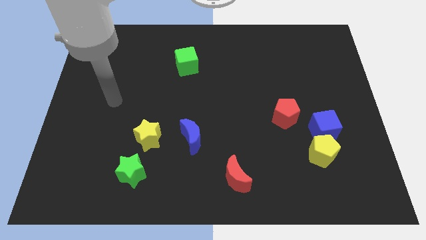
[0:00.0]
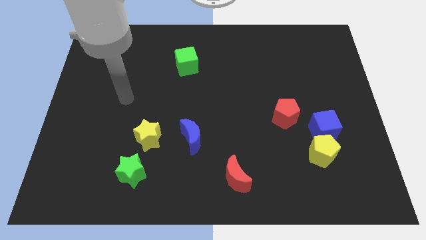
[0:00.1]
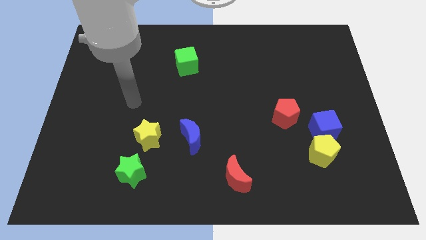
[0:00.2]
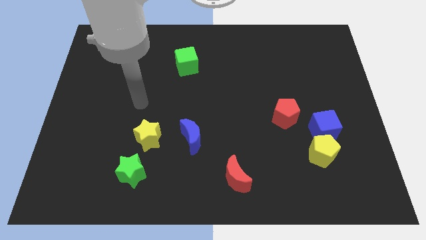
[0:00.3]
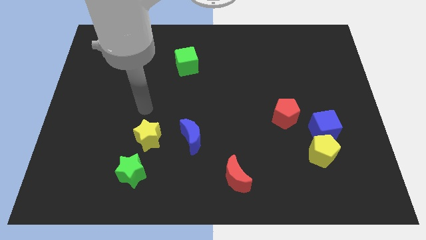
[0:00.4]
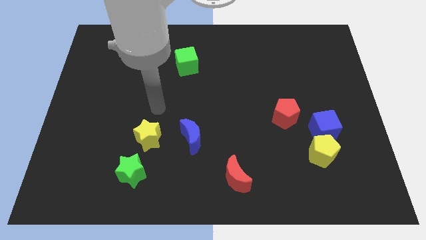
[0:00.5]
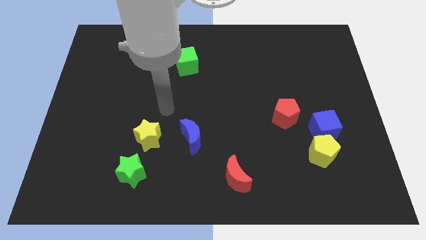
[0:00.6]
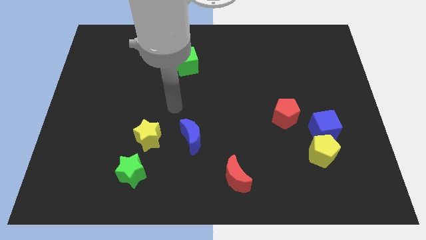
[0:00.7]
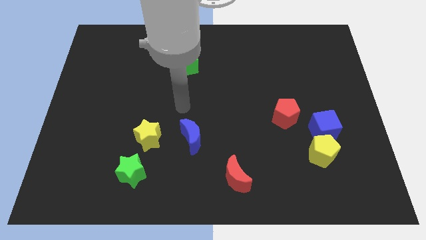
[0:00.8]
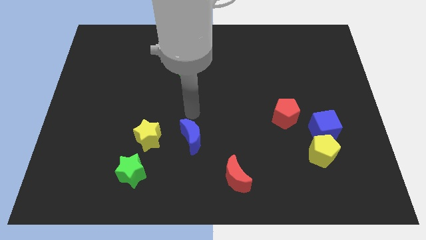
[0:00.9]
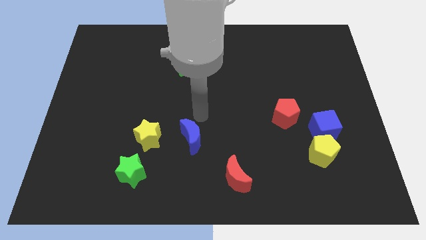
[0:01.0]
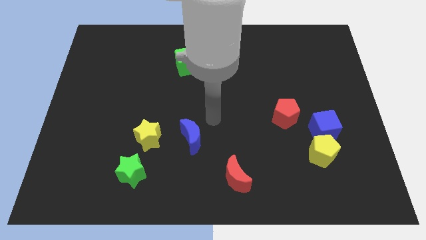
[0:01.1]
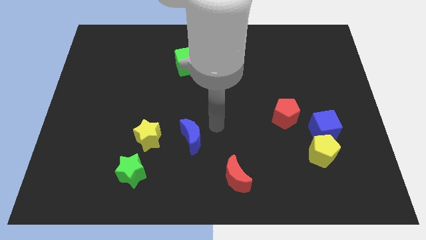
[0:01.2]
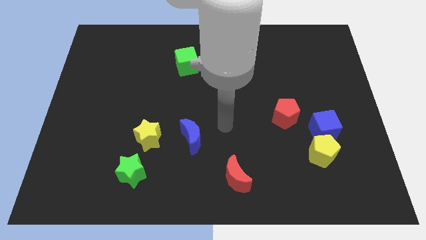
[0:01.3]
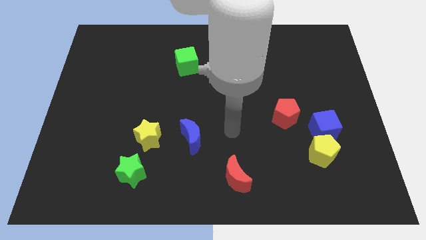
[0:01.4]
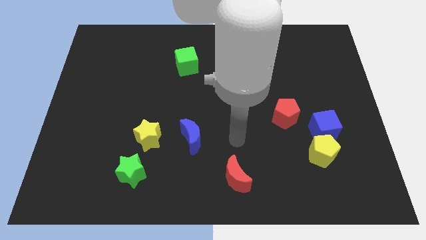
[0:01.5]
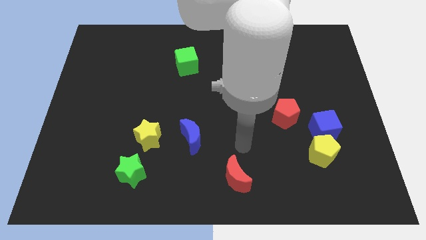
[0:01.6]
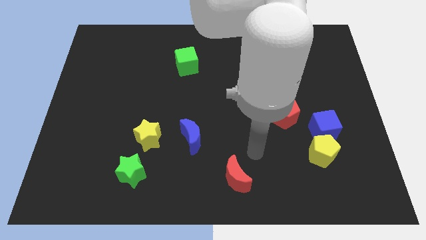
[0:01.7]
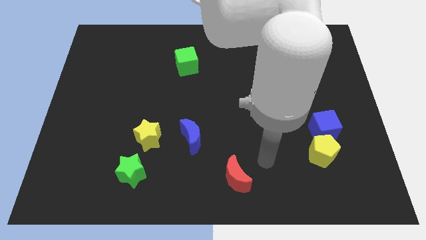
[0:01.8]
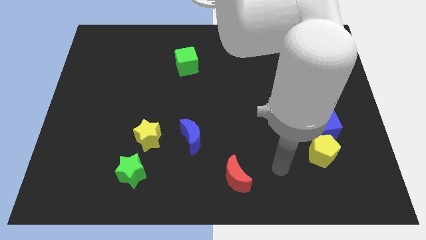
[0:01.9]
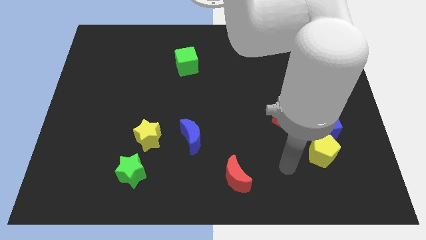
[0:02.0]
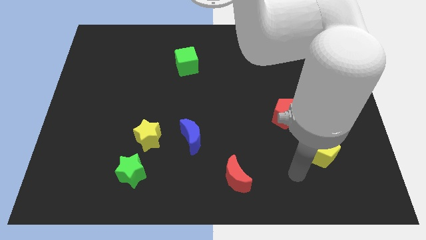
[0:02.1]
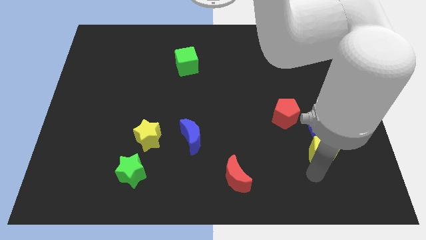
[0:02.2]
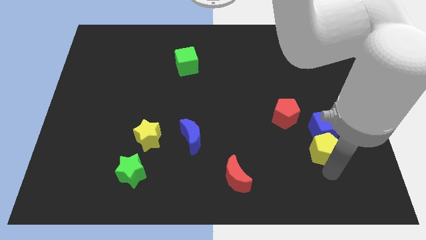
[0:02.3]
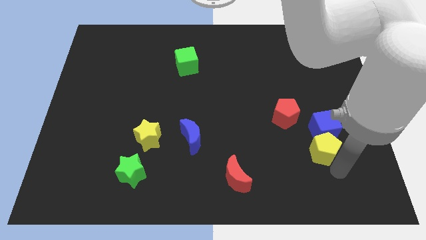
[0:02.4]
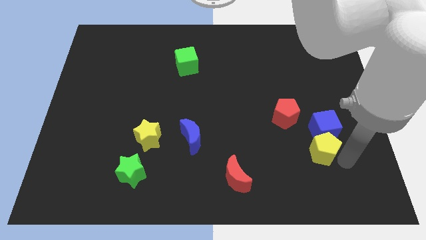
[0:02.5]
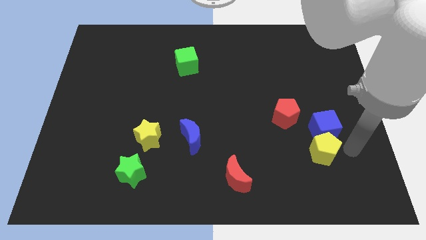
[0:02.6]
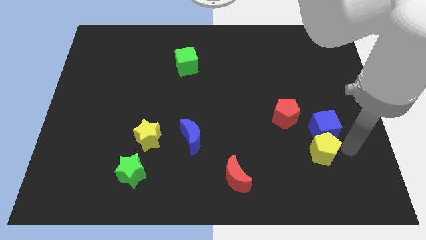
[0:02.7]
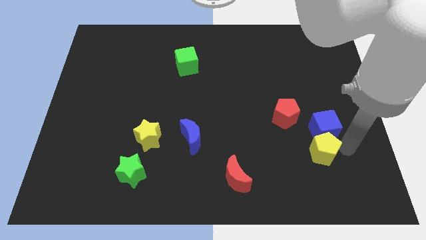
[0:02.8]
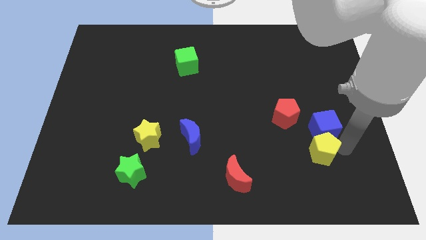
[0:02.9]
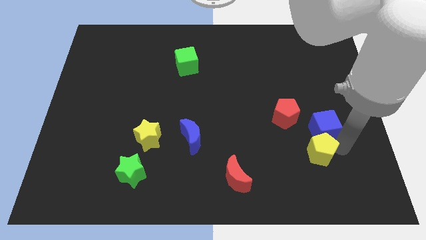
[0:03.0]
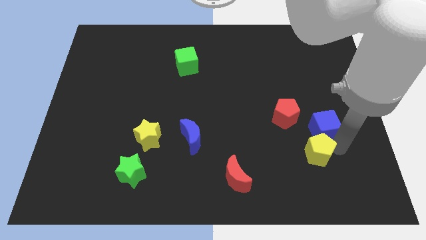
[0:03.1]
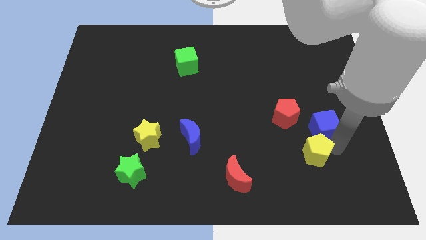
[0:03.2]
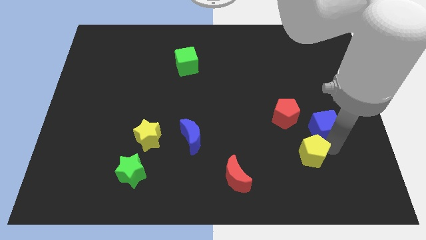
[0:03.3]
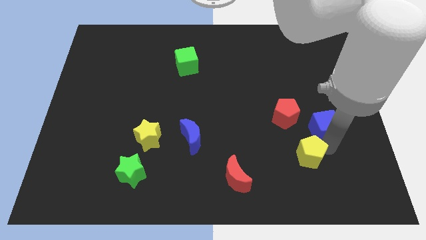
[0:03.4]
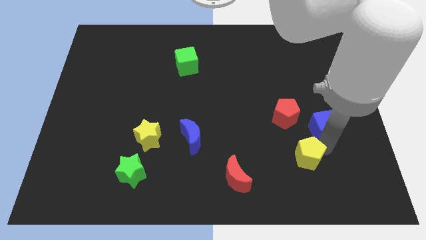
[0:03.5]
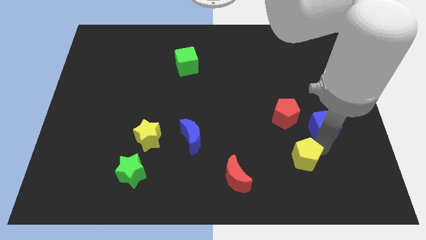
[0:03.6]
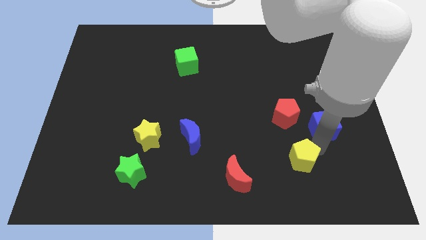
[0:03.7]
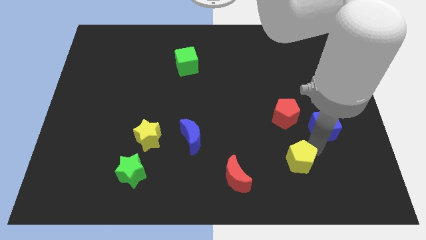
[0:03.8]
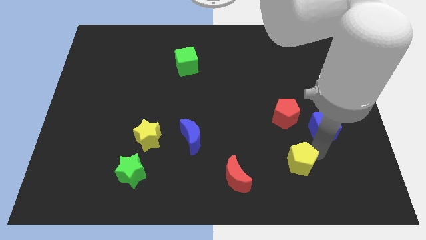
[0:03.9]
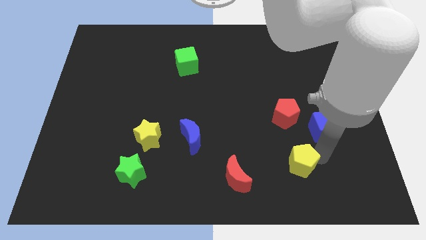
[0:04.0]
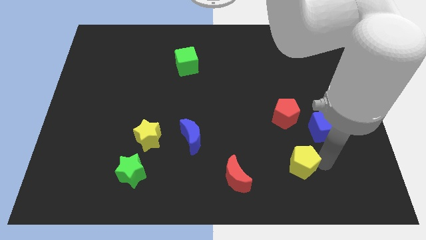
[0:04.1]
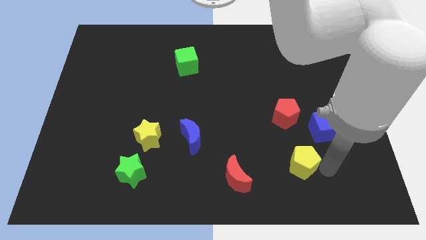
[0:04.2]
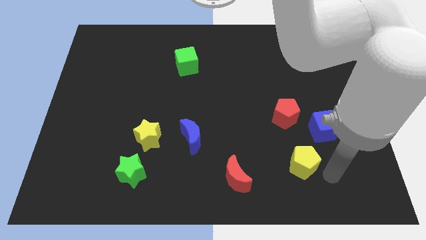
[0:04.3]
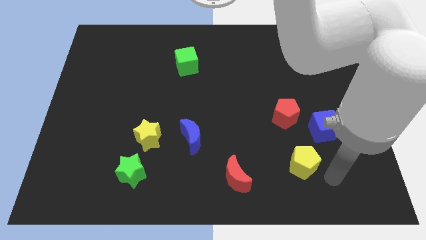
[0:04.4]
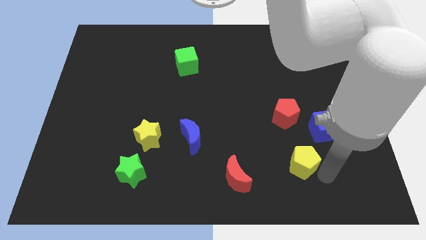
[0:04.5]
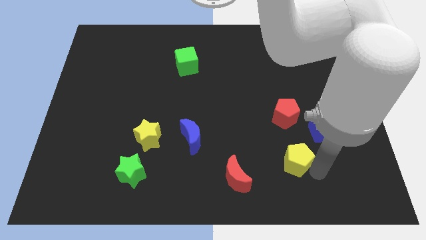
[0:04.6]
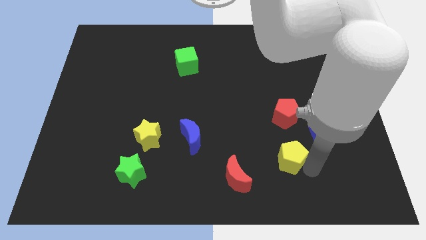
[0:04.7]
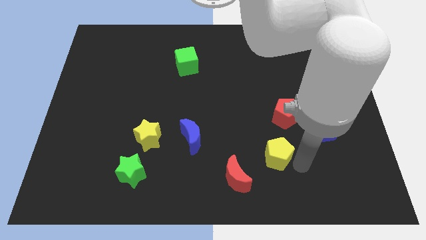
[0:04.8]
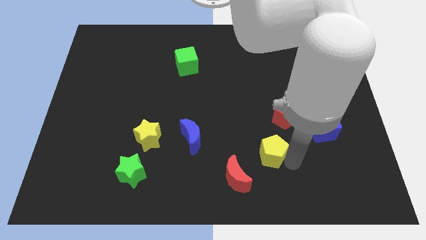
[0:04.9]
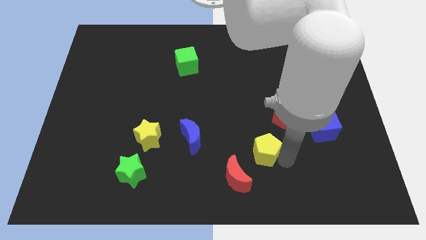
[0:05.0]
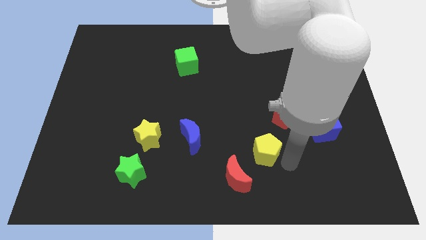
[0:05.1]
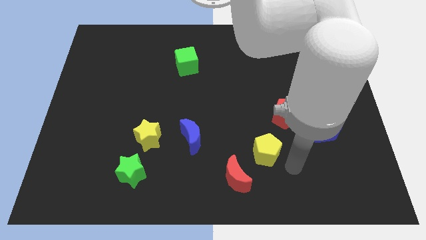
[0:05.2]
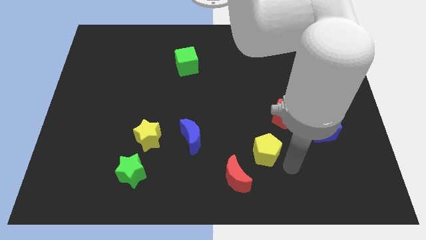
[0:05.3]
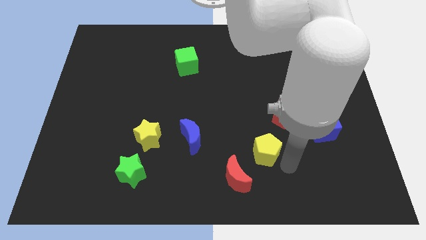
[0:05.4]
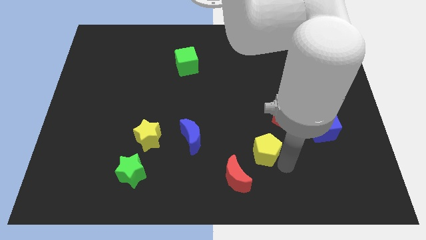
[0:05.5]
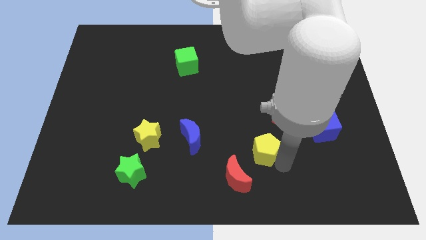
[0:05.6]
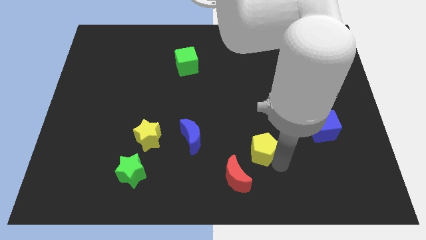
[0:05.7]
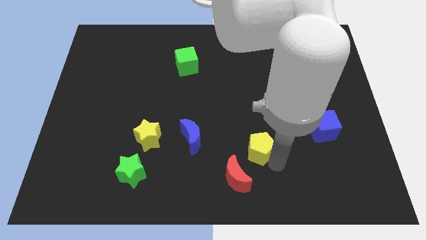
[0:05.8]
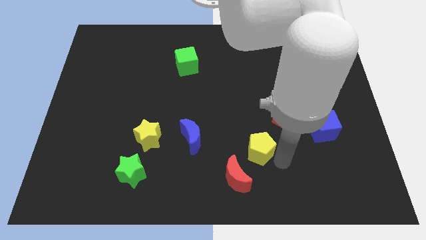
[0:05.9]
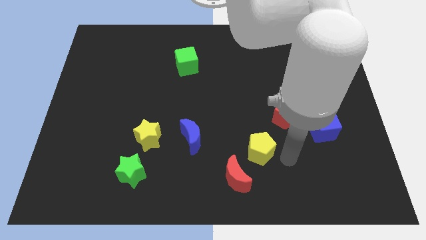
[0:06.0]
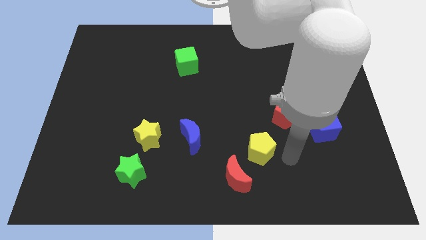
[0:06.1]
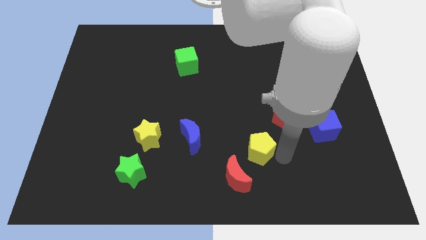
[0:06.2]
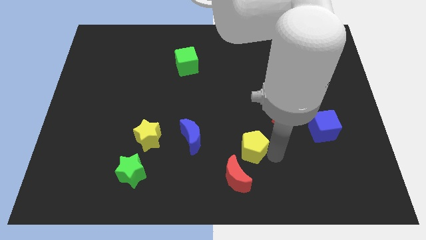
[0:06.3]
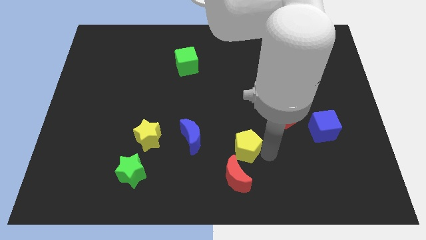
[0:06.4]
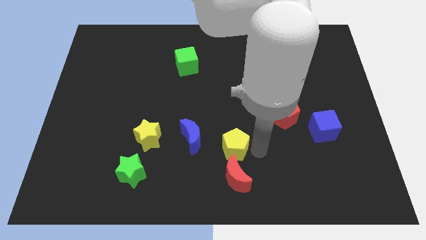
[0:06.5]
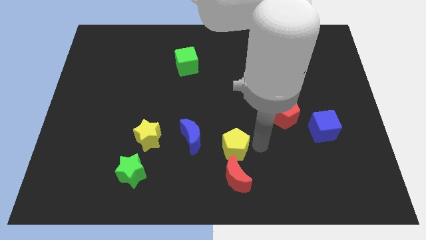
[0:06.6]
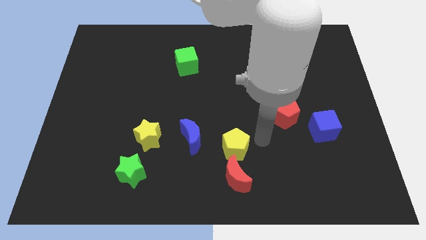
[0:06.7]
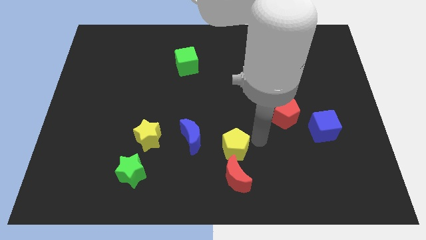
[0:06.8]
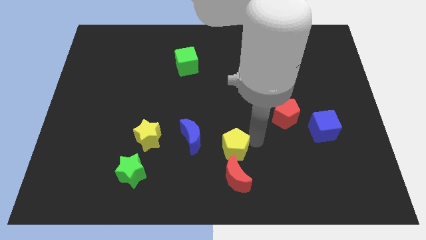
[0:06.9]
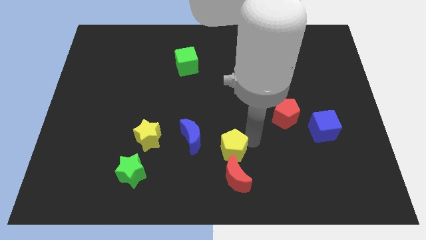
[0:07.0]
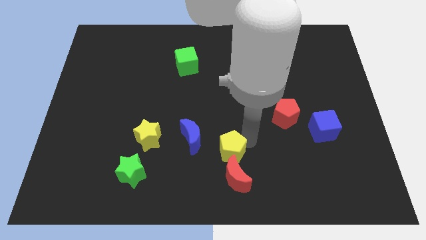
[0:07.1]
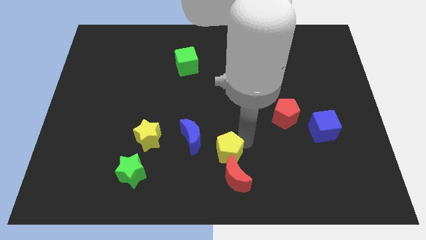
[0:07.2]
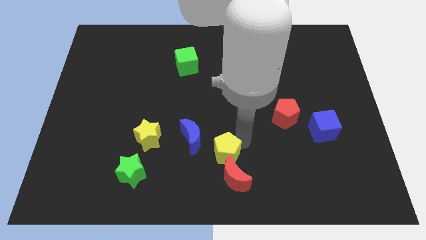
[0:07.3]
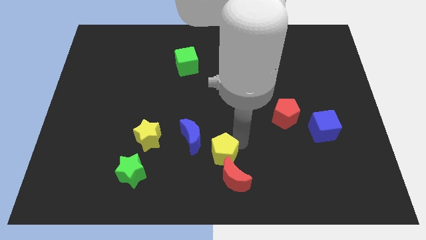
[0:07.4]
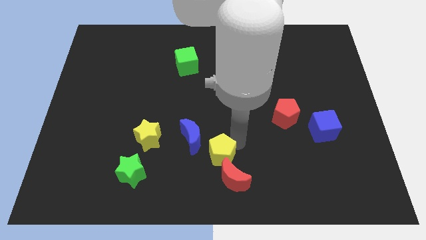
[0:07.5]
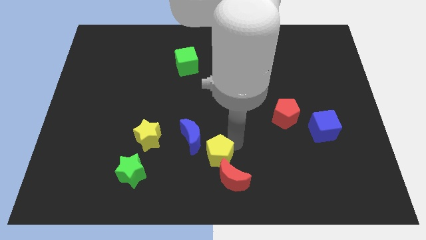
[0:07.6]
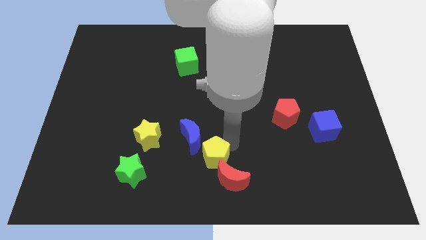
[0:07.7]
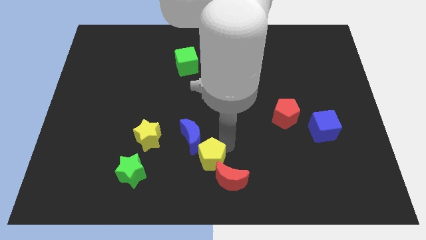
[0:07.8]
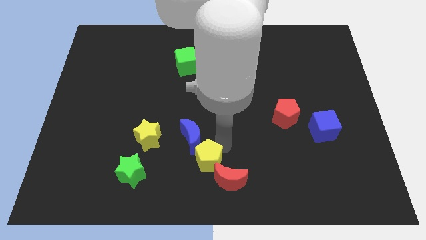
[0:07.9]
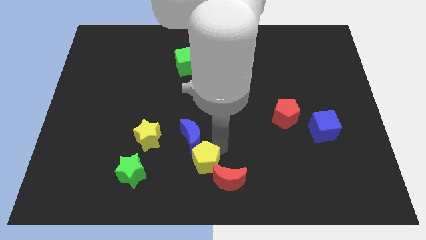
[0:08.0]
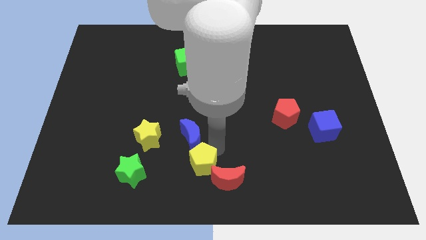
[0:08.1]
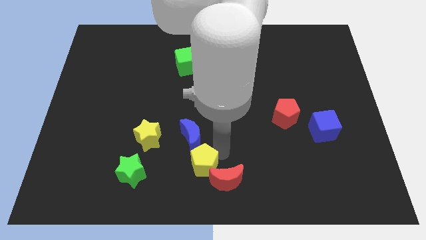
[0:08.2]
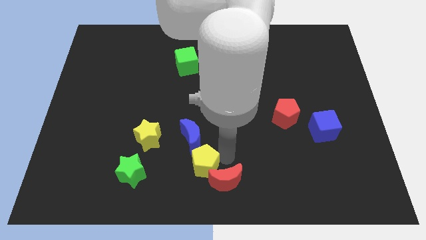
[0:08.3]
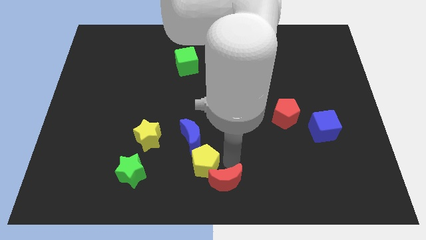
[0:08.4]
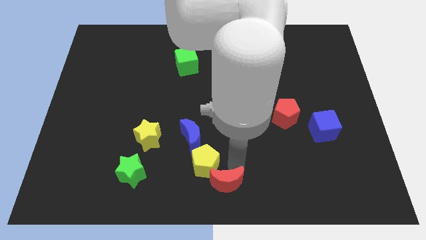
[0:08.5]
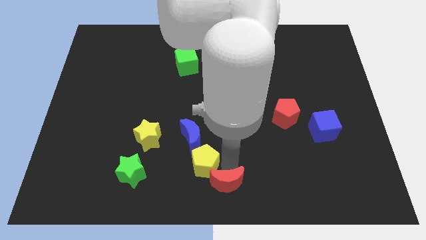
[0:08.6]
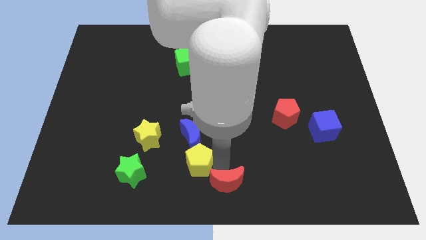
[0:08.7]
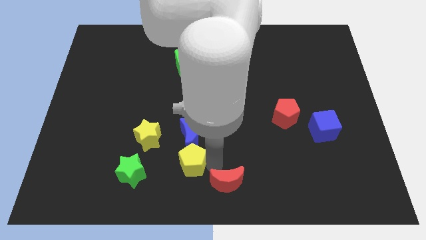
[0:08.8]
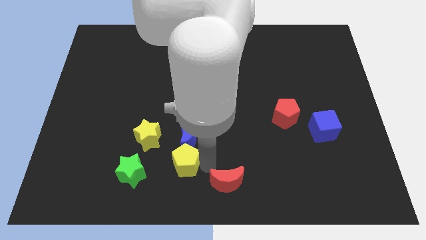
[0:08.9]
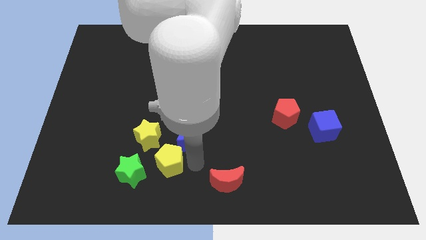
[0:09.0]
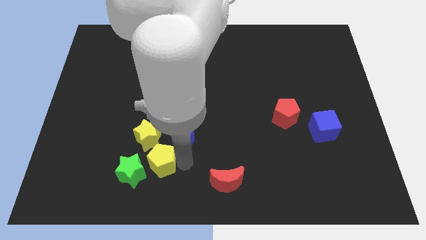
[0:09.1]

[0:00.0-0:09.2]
put the yellow pentagon next to the green star
